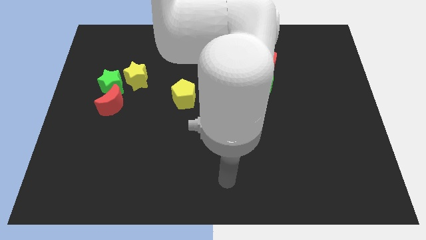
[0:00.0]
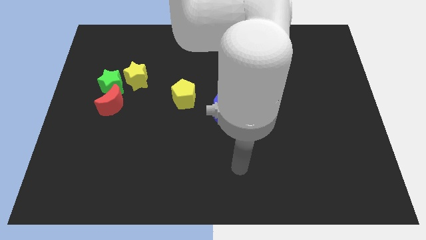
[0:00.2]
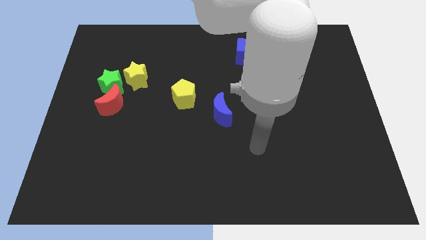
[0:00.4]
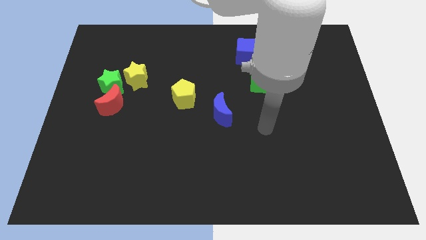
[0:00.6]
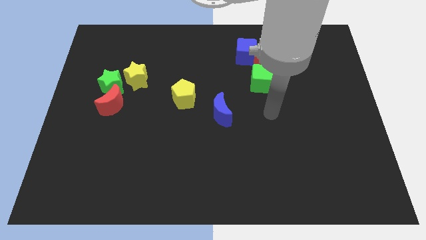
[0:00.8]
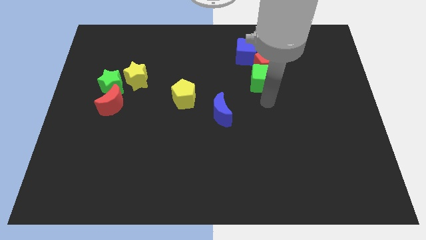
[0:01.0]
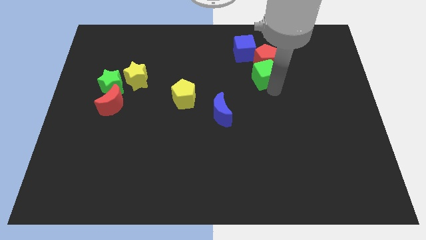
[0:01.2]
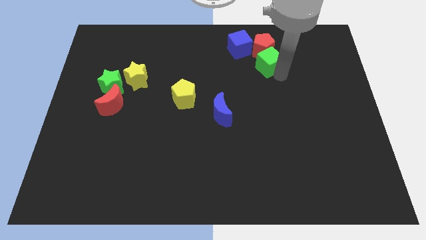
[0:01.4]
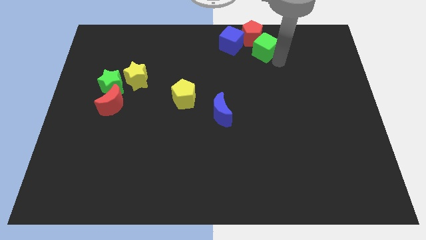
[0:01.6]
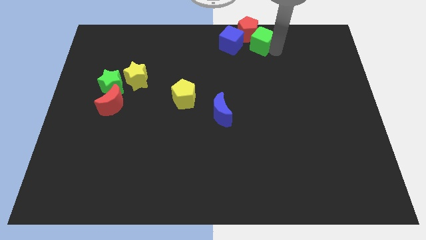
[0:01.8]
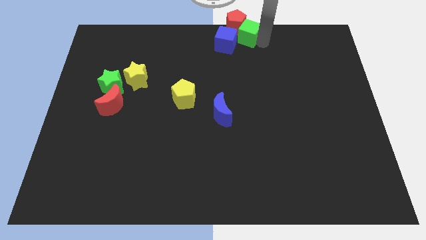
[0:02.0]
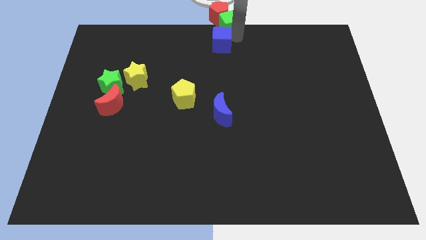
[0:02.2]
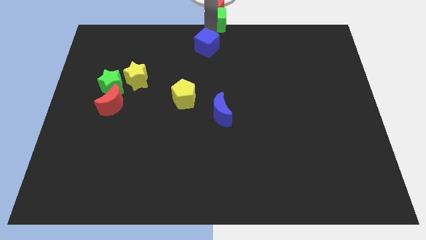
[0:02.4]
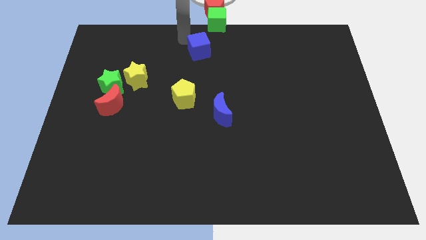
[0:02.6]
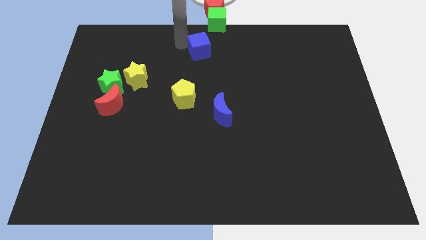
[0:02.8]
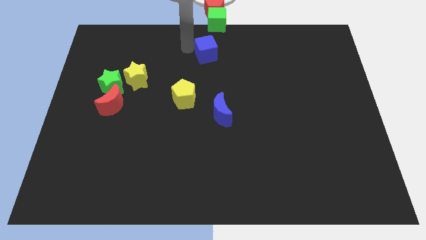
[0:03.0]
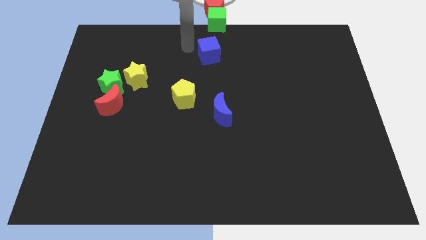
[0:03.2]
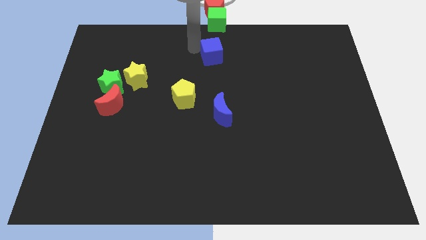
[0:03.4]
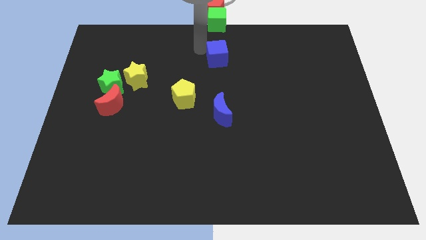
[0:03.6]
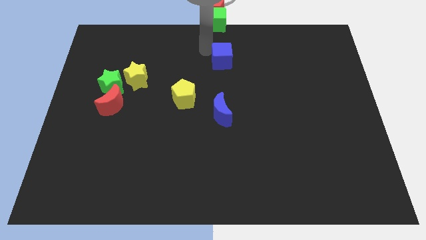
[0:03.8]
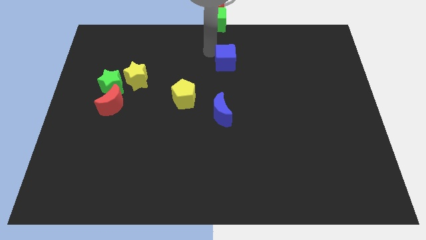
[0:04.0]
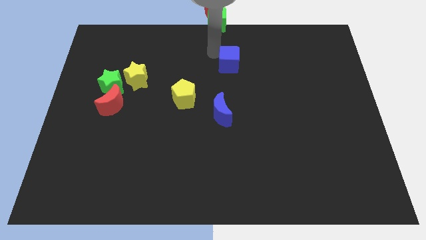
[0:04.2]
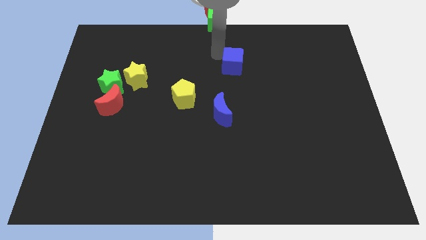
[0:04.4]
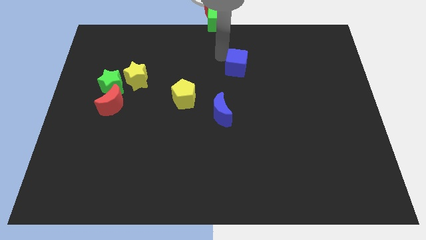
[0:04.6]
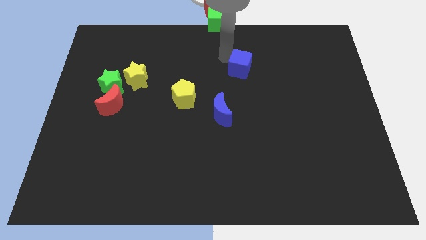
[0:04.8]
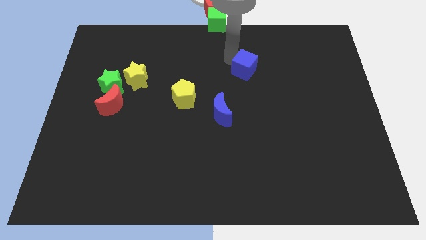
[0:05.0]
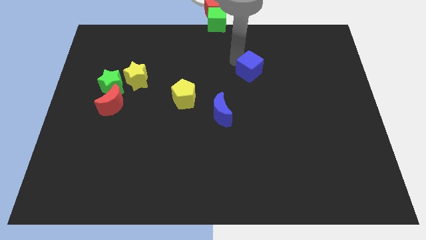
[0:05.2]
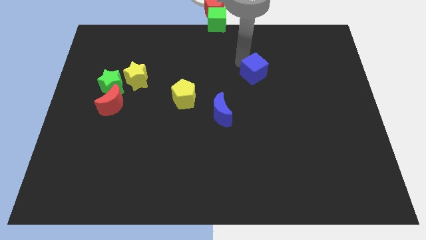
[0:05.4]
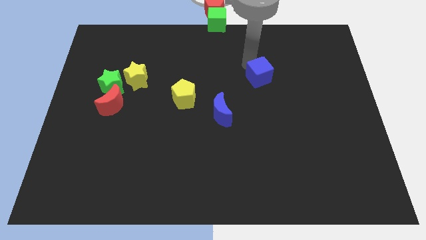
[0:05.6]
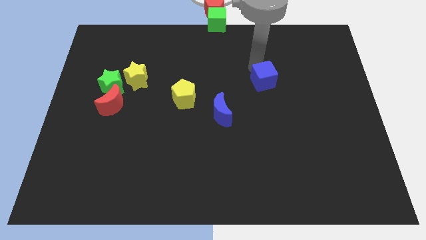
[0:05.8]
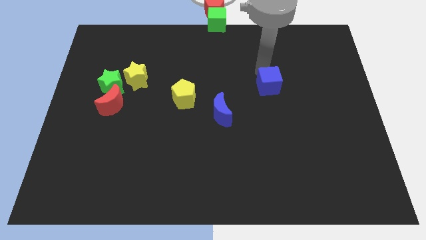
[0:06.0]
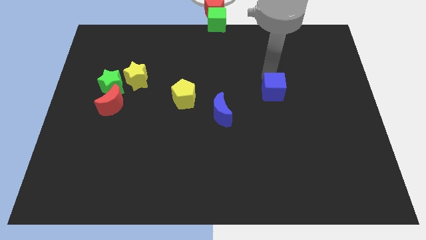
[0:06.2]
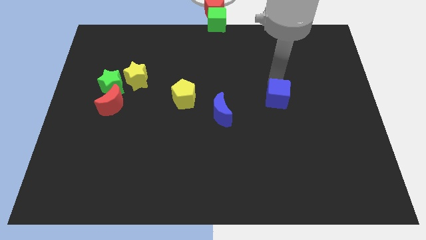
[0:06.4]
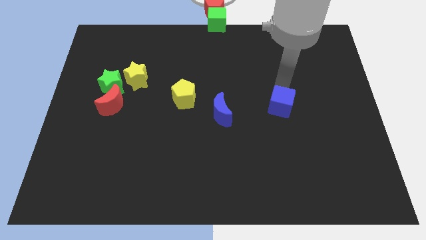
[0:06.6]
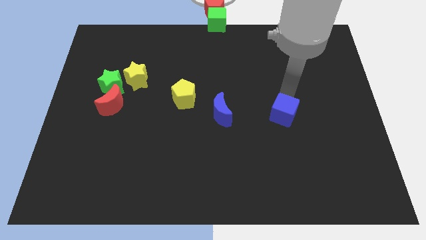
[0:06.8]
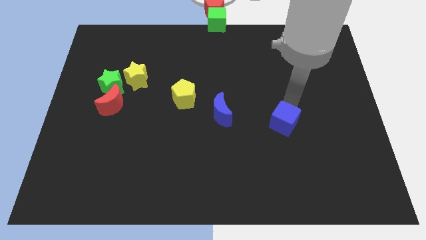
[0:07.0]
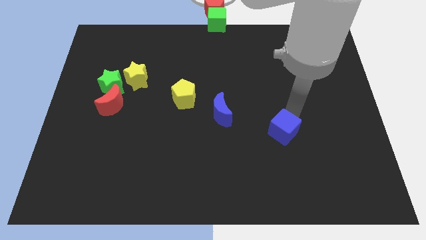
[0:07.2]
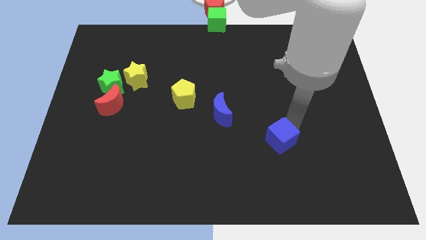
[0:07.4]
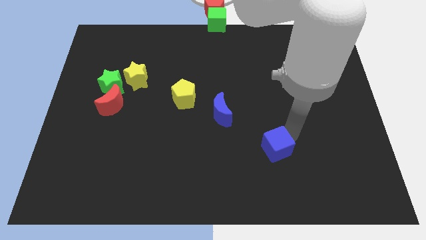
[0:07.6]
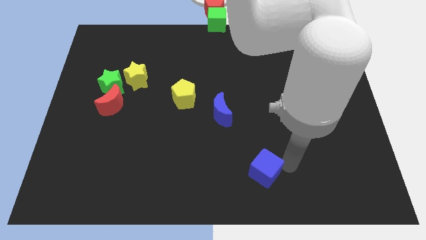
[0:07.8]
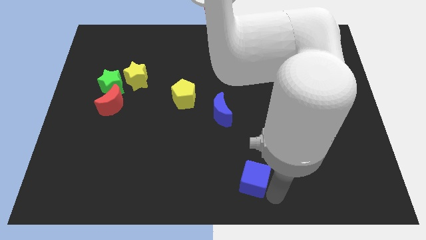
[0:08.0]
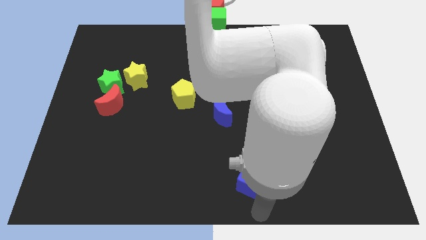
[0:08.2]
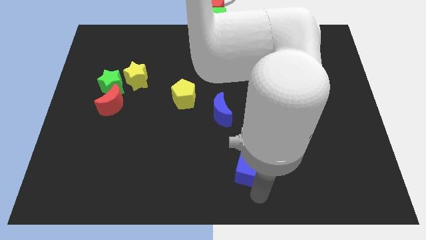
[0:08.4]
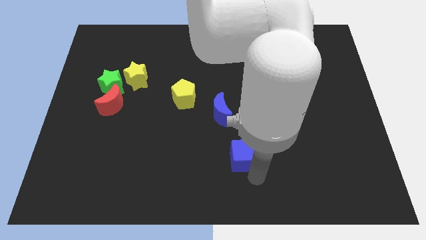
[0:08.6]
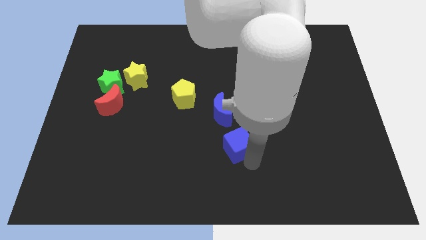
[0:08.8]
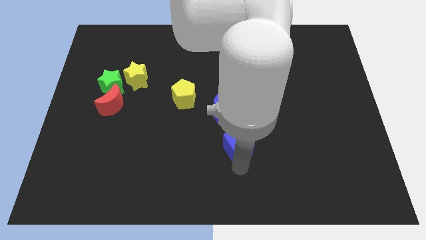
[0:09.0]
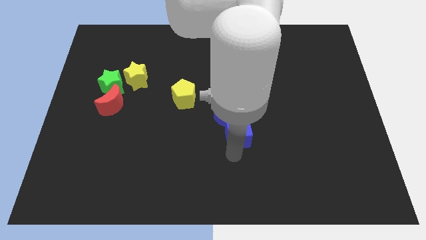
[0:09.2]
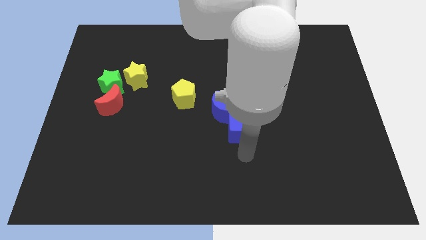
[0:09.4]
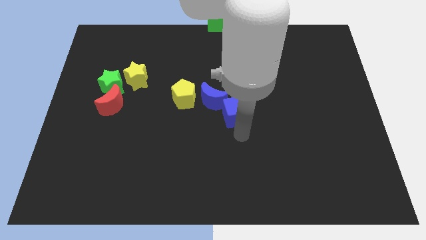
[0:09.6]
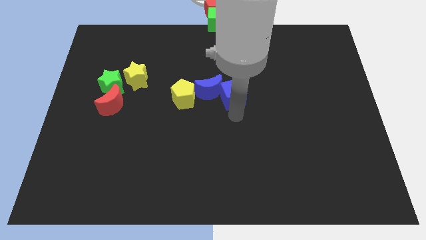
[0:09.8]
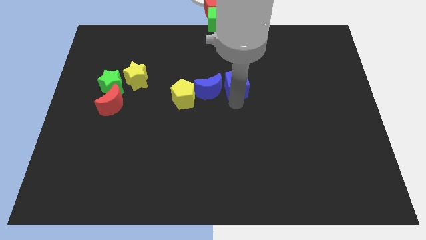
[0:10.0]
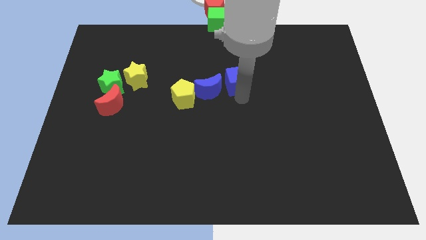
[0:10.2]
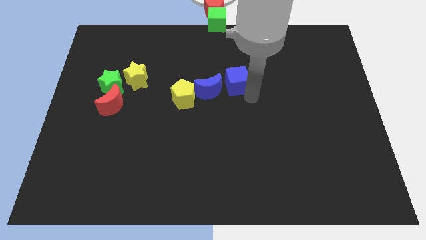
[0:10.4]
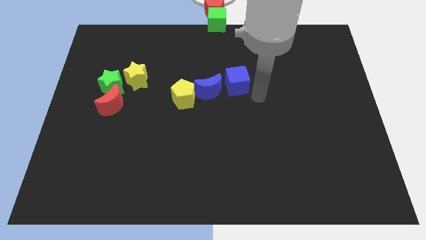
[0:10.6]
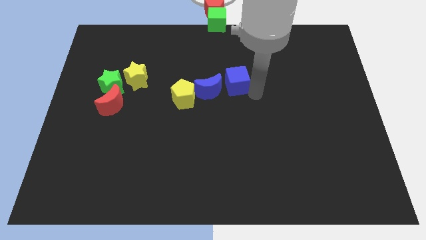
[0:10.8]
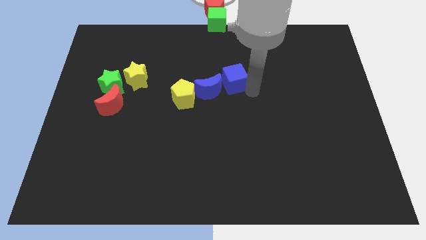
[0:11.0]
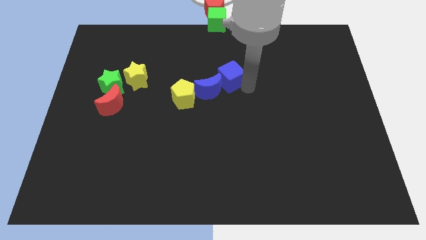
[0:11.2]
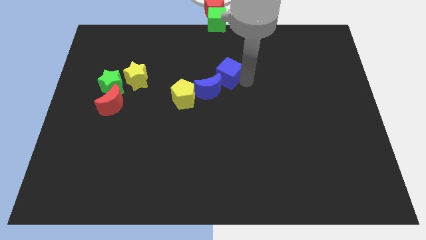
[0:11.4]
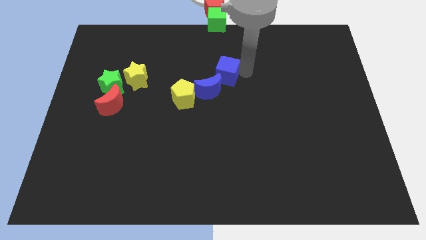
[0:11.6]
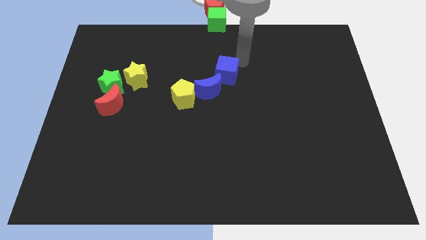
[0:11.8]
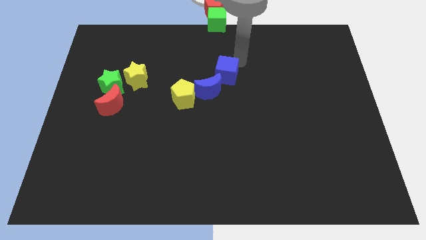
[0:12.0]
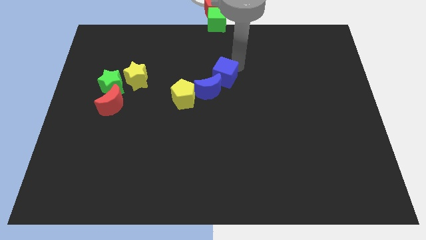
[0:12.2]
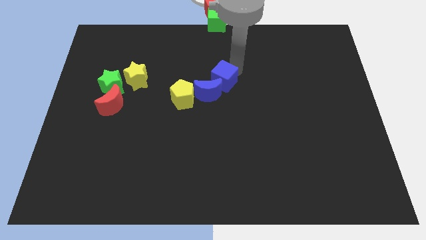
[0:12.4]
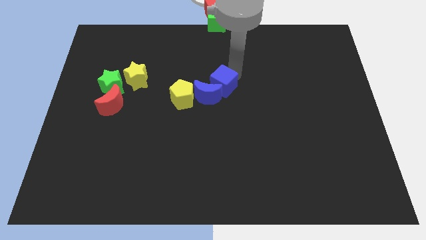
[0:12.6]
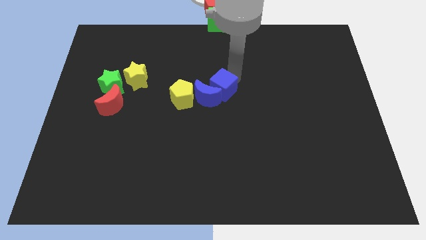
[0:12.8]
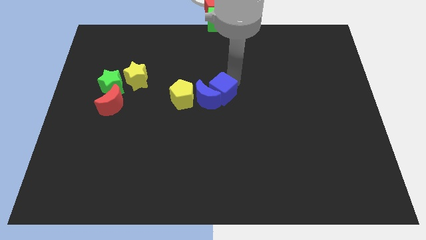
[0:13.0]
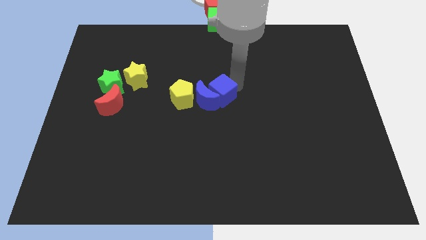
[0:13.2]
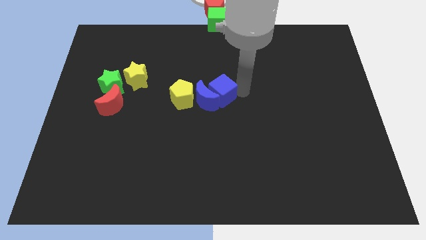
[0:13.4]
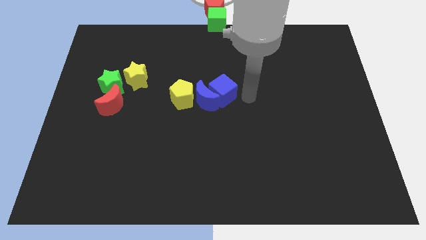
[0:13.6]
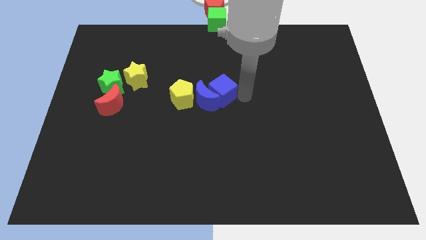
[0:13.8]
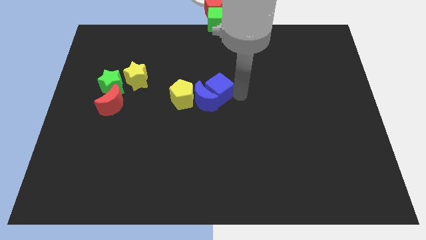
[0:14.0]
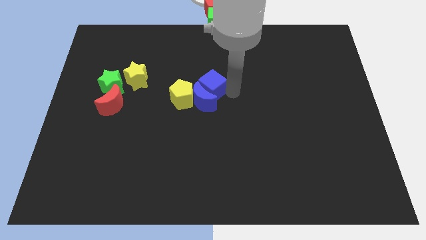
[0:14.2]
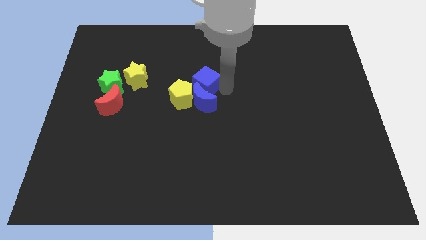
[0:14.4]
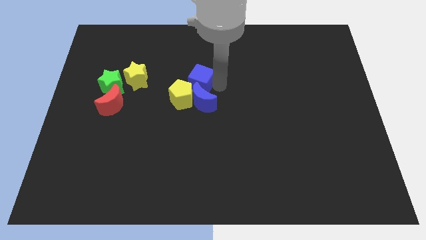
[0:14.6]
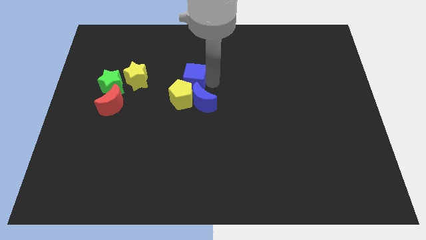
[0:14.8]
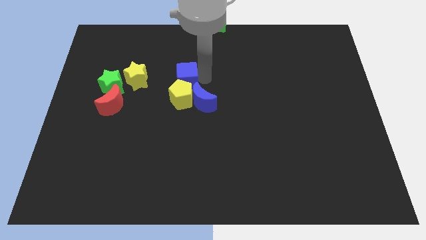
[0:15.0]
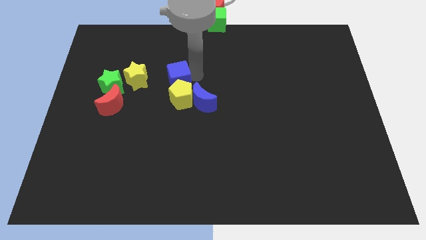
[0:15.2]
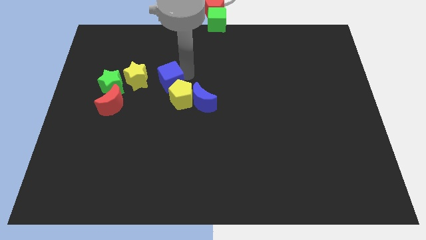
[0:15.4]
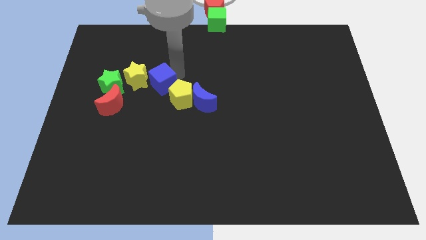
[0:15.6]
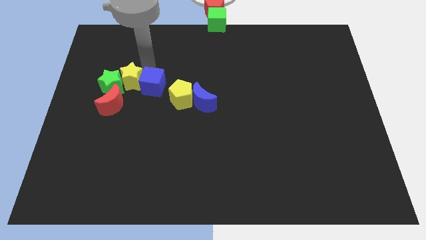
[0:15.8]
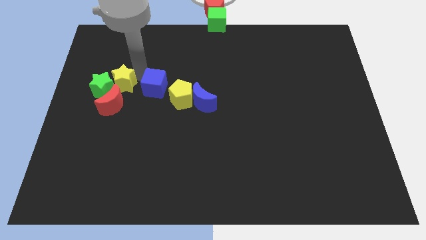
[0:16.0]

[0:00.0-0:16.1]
push the blue cube to the left of the blue moon
